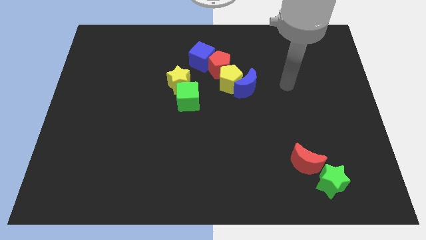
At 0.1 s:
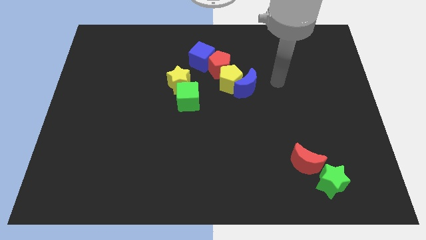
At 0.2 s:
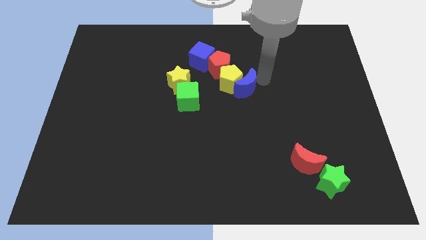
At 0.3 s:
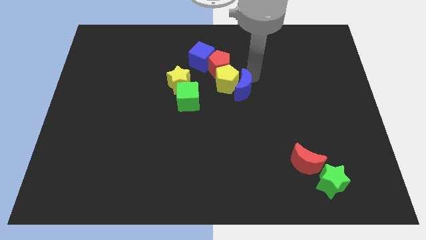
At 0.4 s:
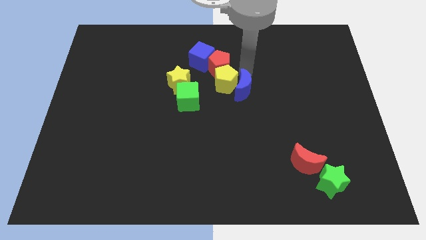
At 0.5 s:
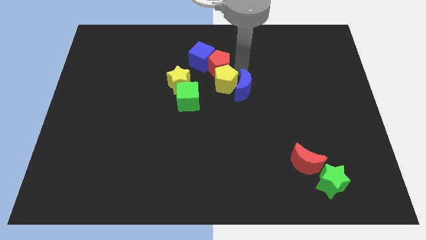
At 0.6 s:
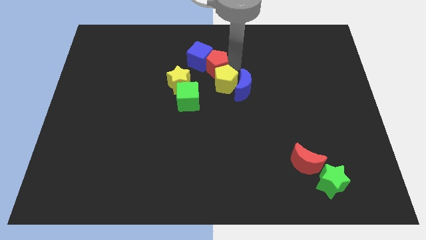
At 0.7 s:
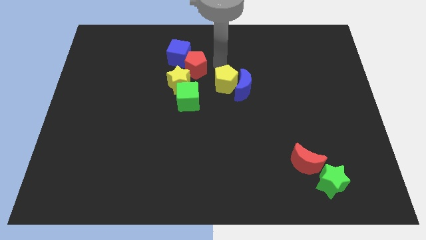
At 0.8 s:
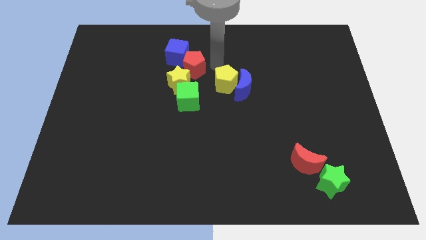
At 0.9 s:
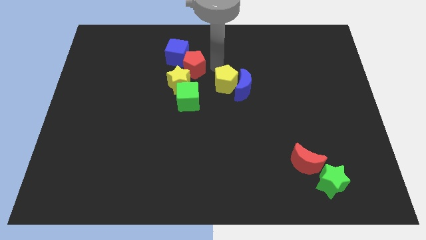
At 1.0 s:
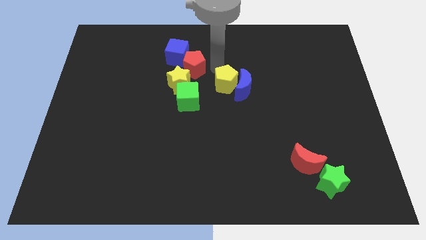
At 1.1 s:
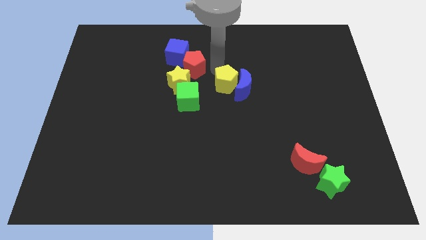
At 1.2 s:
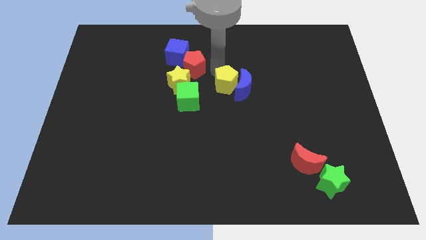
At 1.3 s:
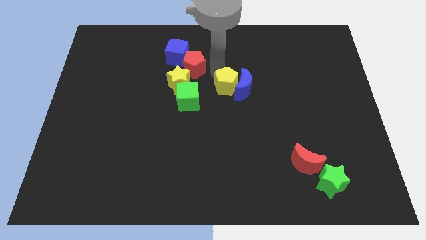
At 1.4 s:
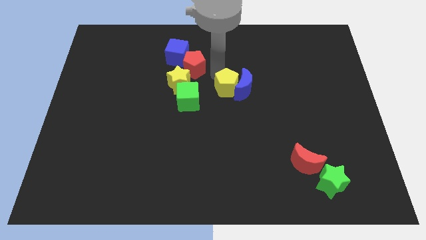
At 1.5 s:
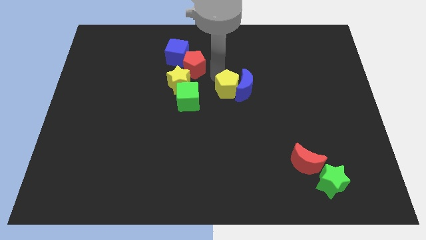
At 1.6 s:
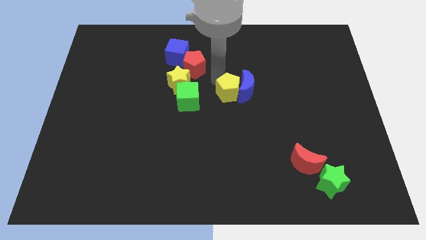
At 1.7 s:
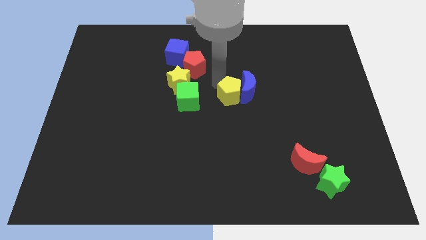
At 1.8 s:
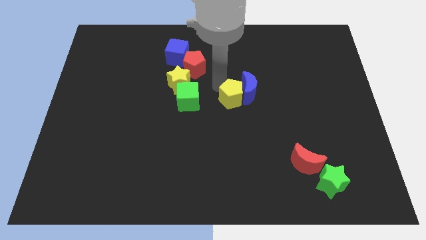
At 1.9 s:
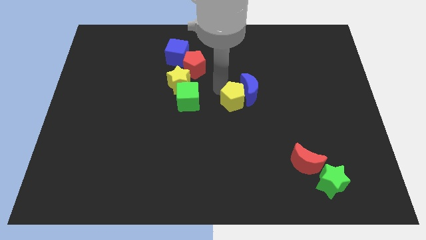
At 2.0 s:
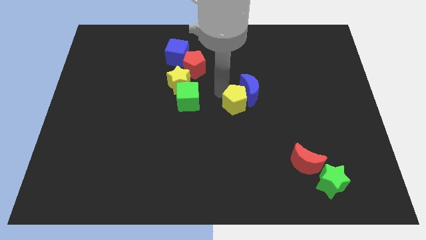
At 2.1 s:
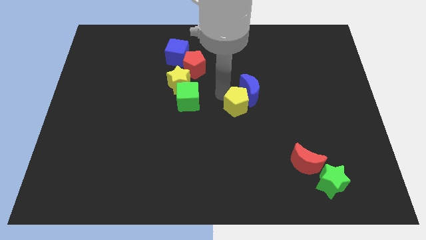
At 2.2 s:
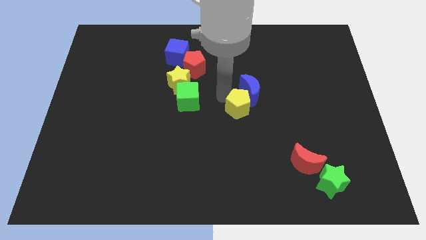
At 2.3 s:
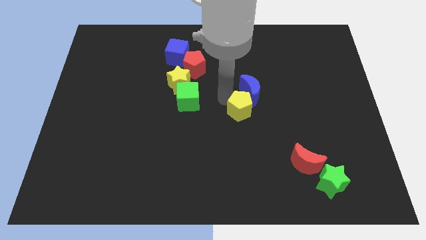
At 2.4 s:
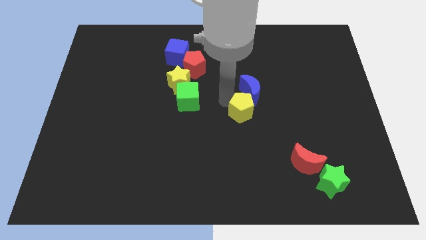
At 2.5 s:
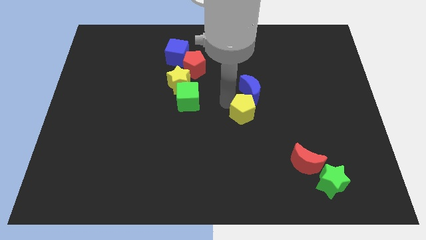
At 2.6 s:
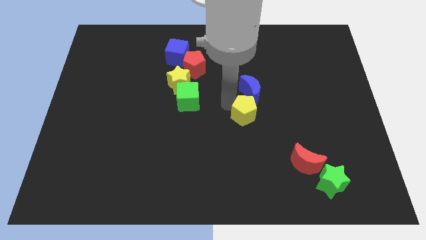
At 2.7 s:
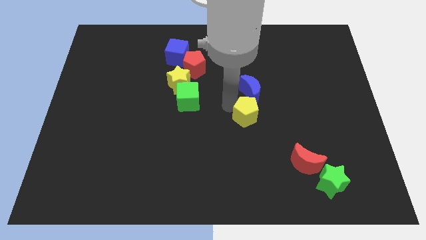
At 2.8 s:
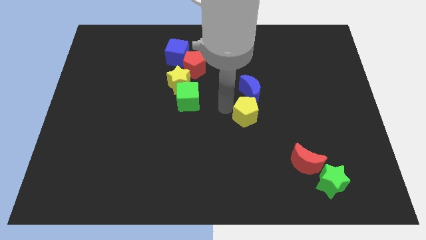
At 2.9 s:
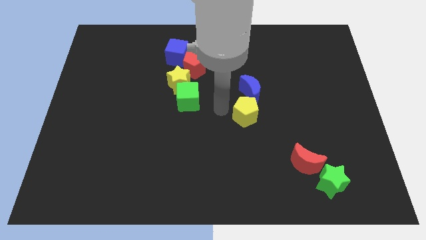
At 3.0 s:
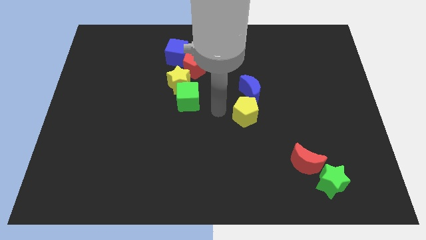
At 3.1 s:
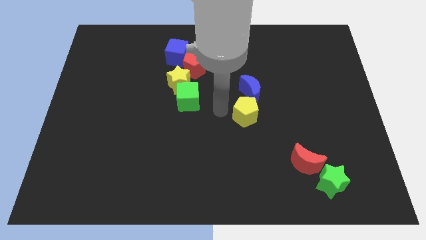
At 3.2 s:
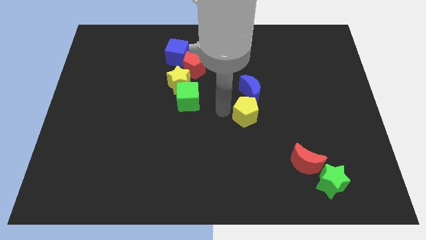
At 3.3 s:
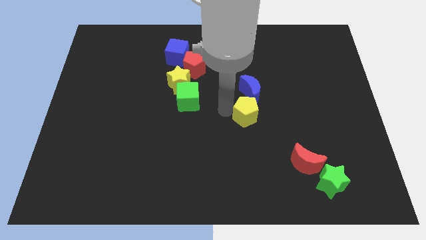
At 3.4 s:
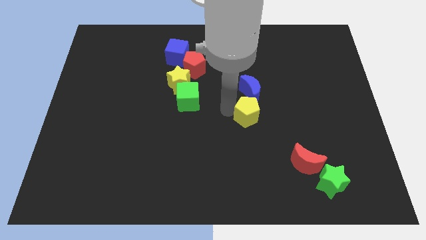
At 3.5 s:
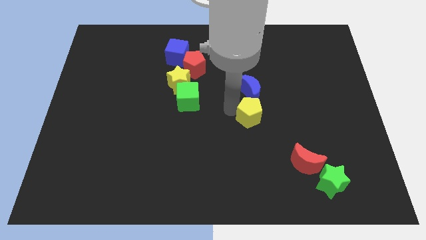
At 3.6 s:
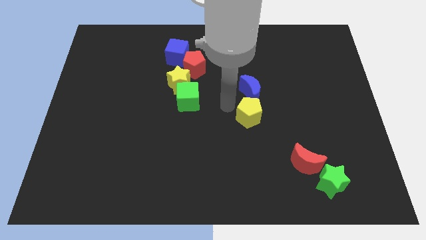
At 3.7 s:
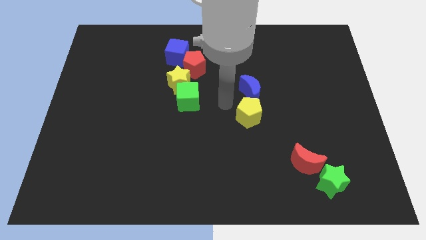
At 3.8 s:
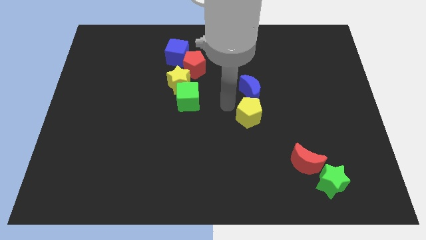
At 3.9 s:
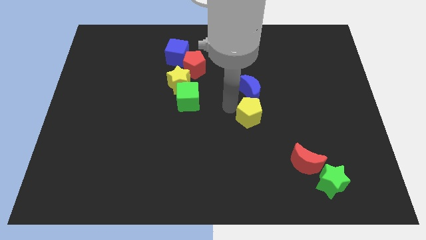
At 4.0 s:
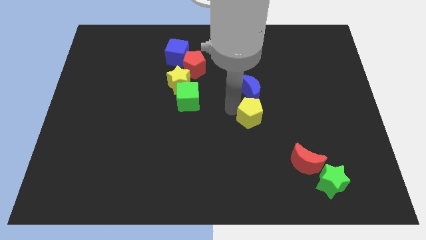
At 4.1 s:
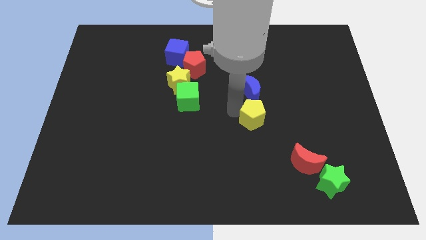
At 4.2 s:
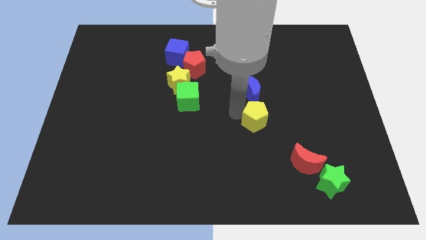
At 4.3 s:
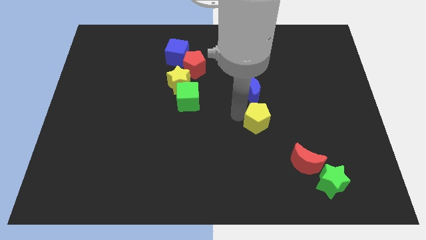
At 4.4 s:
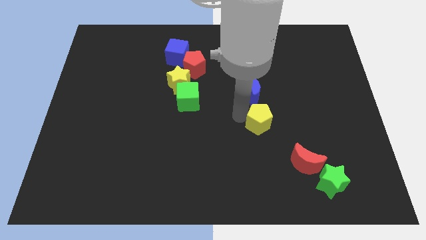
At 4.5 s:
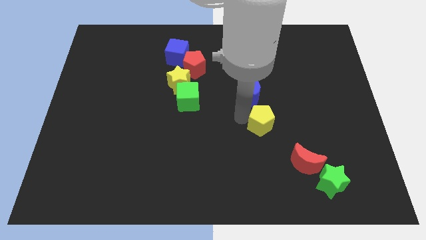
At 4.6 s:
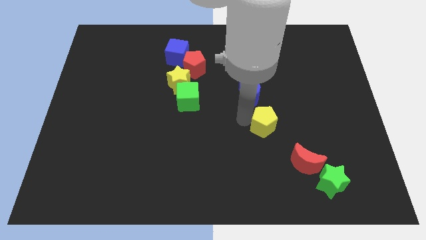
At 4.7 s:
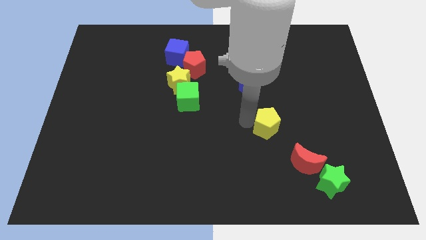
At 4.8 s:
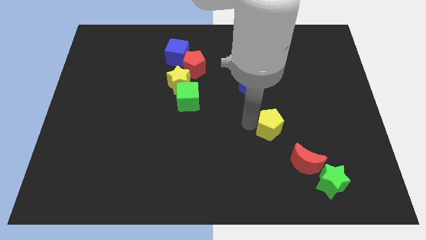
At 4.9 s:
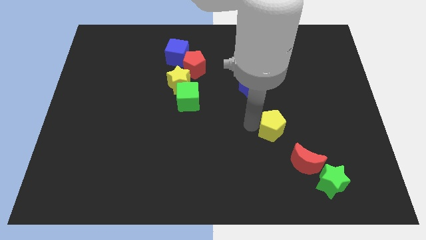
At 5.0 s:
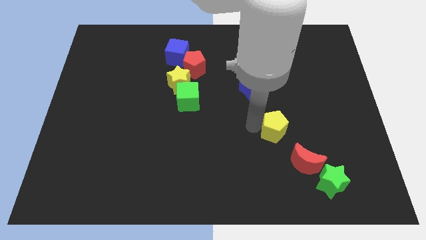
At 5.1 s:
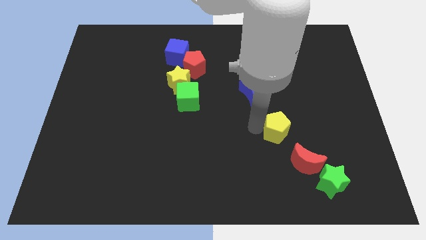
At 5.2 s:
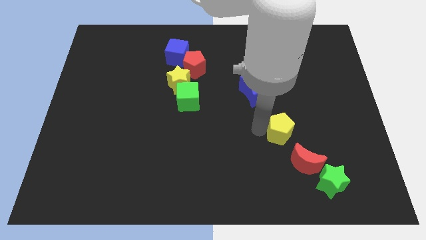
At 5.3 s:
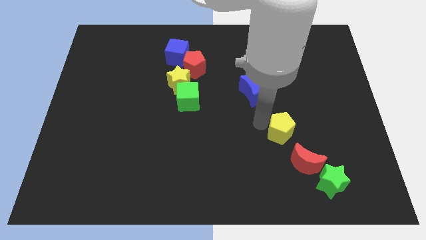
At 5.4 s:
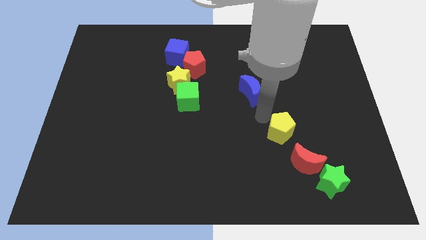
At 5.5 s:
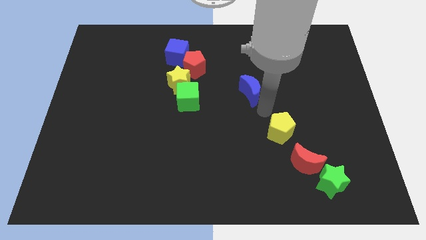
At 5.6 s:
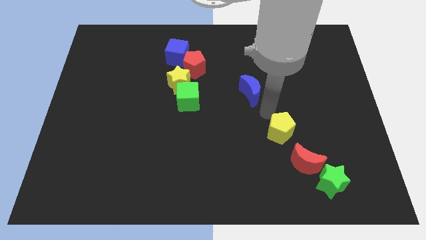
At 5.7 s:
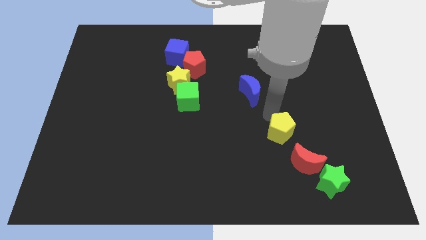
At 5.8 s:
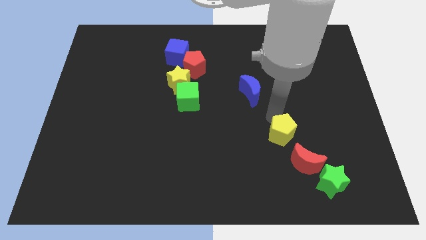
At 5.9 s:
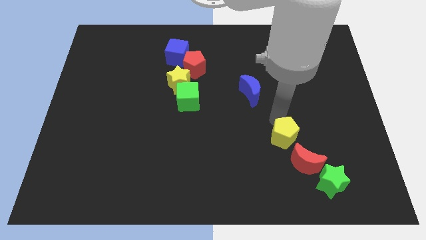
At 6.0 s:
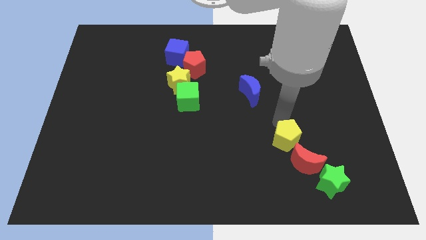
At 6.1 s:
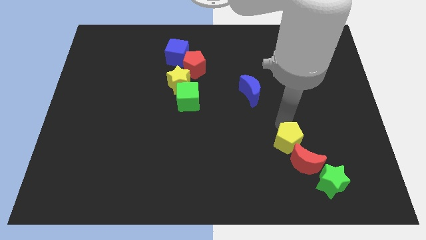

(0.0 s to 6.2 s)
push the yellow pentagon close to the red moon

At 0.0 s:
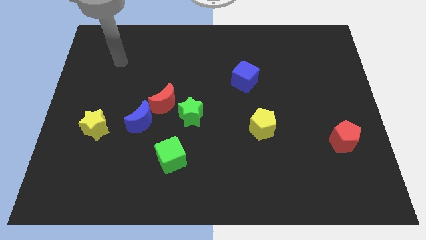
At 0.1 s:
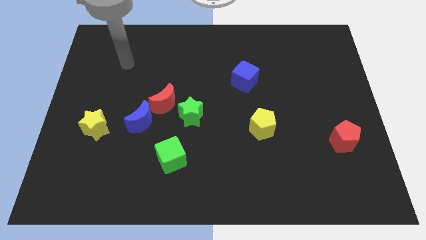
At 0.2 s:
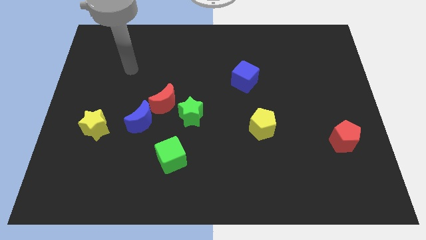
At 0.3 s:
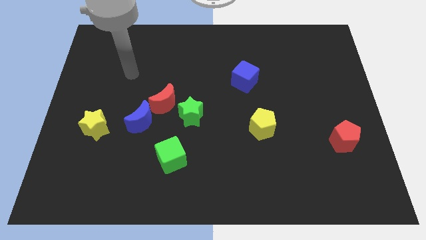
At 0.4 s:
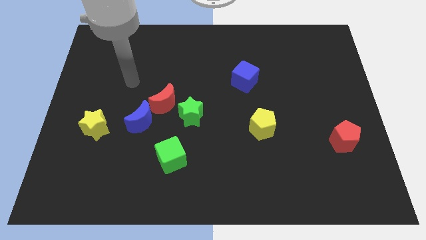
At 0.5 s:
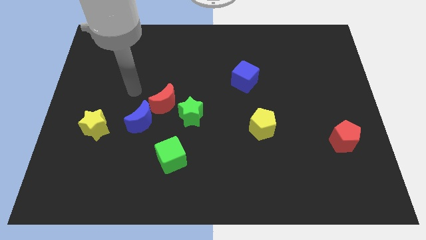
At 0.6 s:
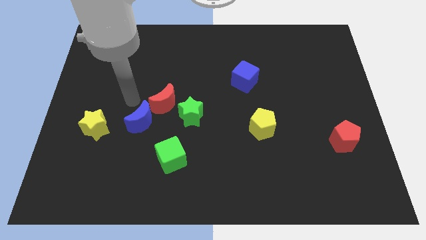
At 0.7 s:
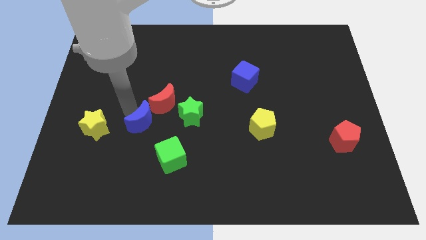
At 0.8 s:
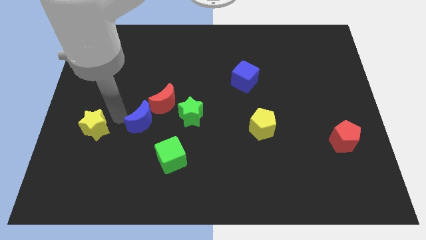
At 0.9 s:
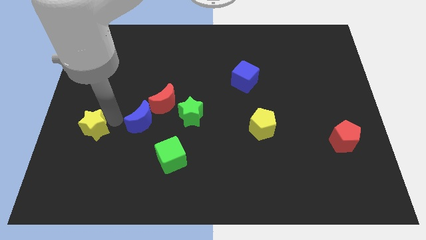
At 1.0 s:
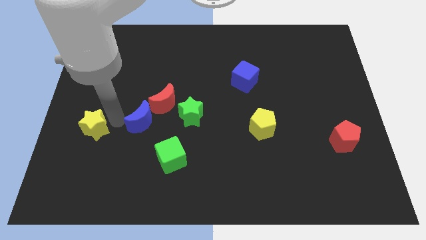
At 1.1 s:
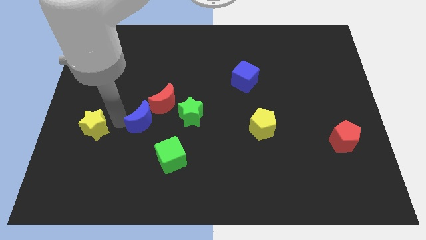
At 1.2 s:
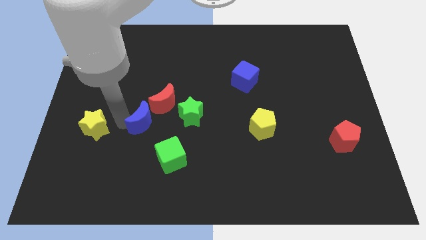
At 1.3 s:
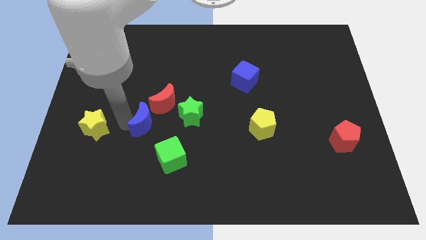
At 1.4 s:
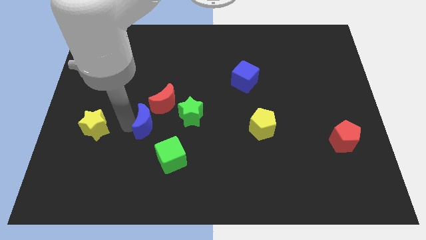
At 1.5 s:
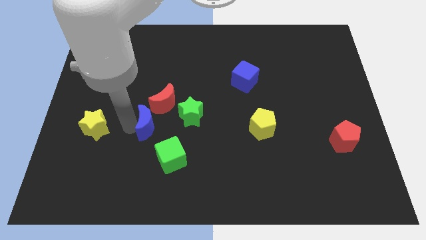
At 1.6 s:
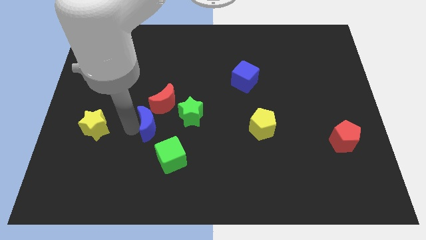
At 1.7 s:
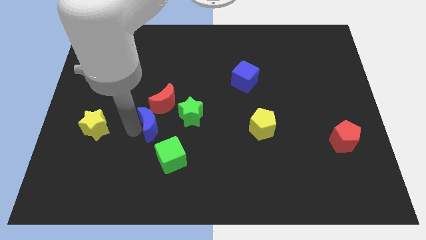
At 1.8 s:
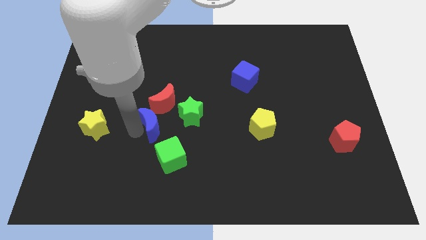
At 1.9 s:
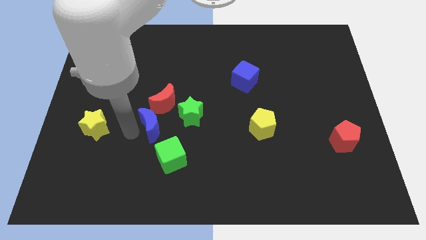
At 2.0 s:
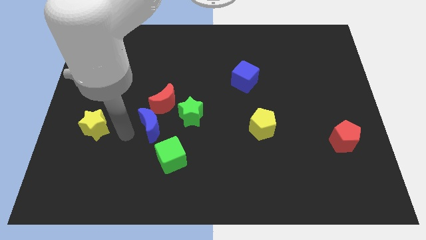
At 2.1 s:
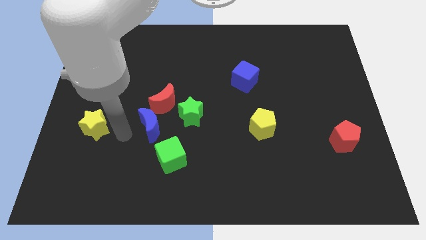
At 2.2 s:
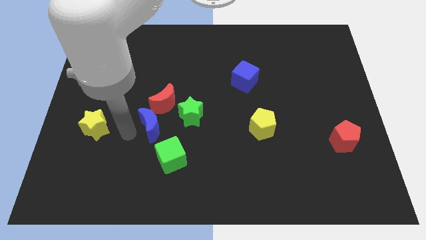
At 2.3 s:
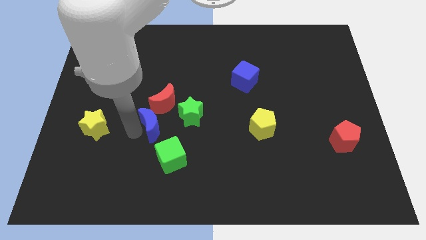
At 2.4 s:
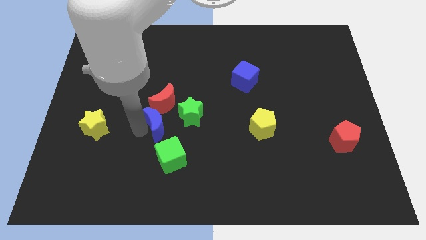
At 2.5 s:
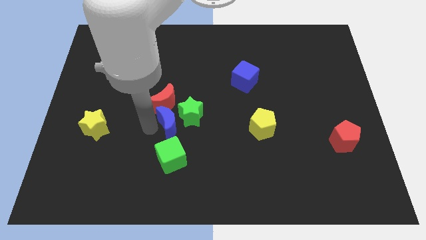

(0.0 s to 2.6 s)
put the blue moon to the green star
